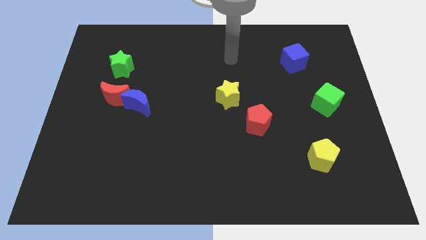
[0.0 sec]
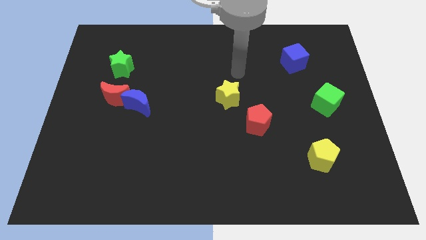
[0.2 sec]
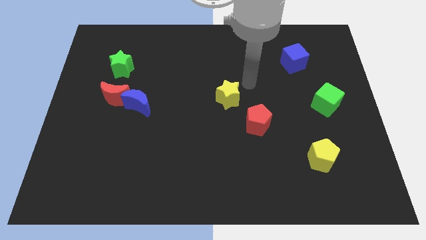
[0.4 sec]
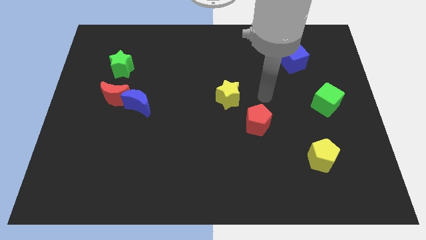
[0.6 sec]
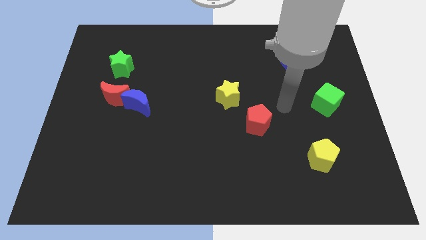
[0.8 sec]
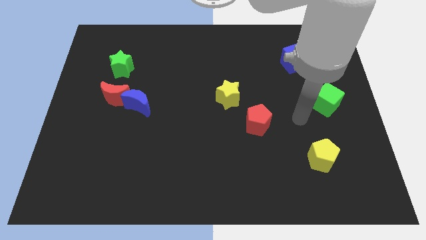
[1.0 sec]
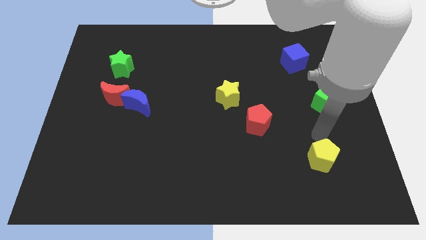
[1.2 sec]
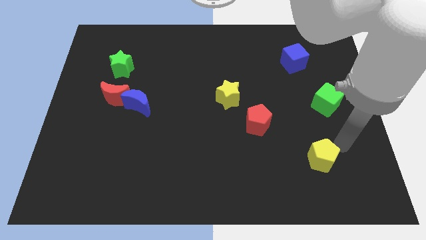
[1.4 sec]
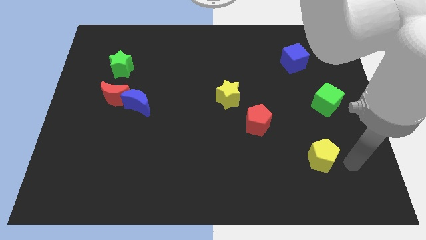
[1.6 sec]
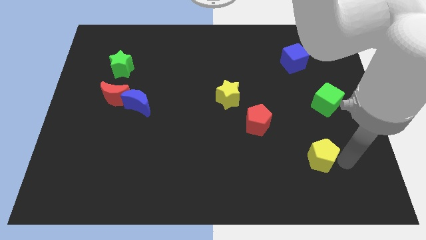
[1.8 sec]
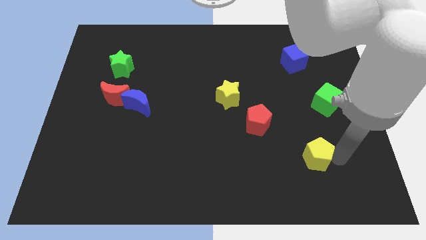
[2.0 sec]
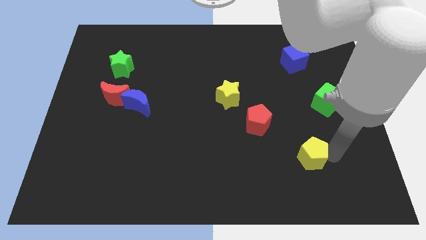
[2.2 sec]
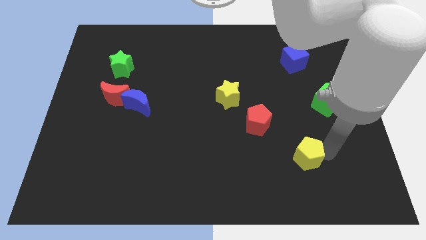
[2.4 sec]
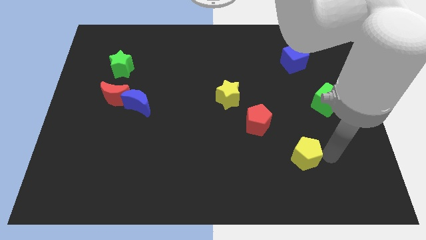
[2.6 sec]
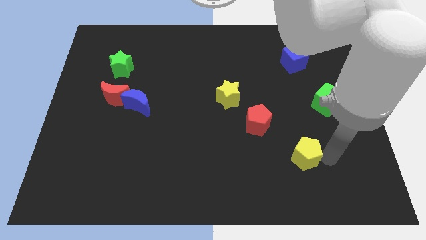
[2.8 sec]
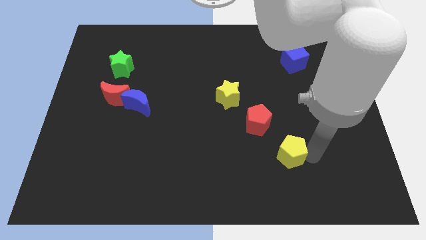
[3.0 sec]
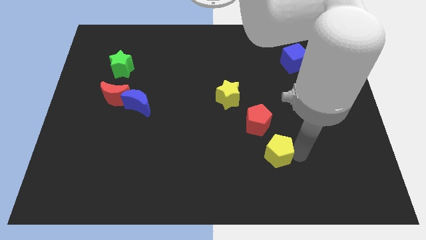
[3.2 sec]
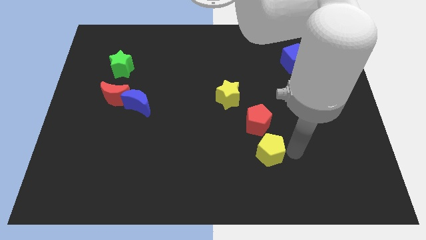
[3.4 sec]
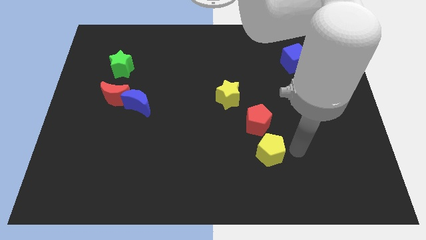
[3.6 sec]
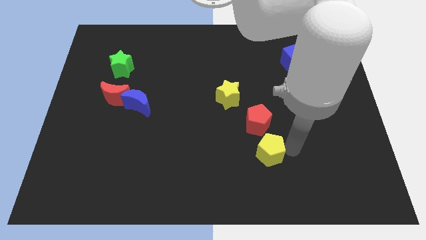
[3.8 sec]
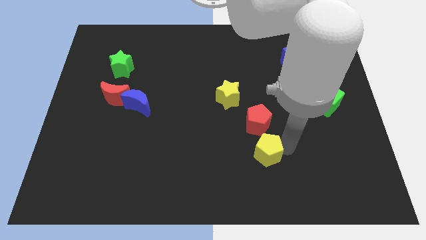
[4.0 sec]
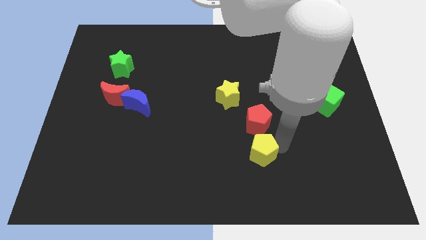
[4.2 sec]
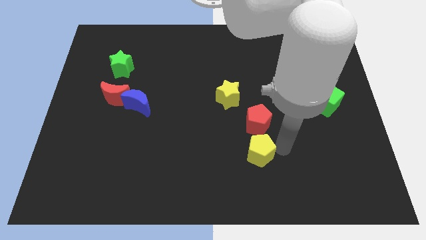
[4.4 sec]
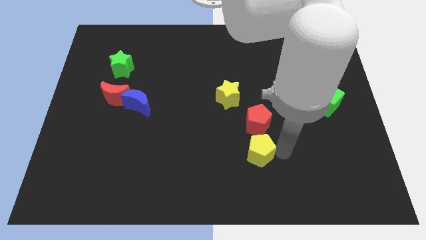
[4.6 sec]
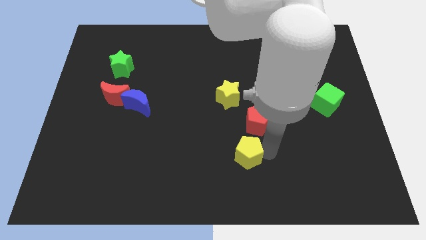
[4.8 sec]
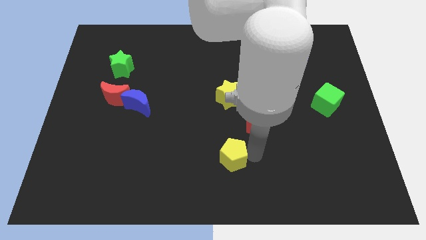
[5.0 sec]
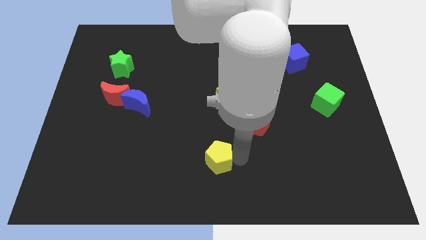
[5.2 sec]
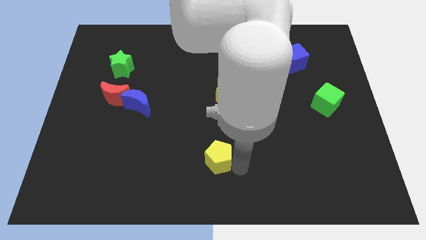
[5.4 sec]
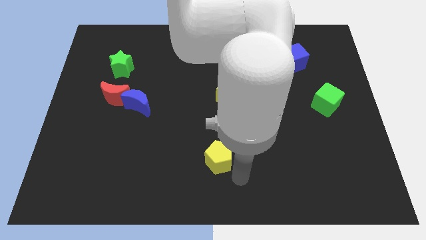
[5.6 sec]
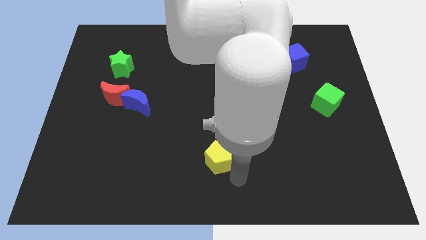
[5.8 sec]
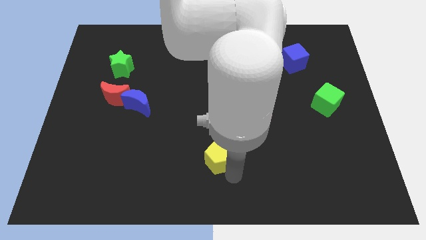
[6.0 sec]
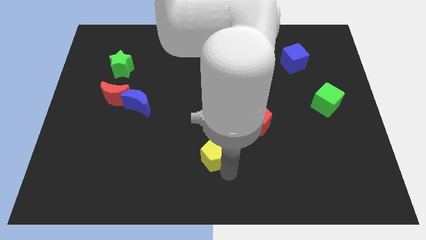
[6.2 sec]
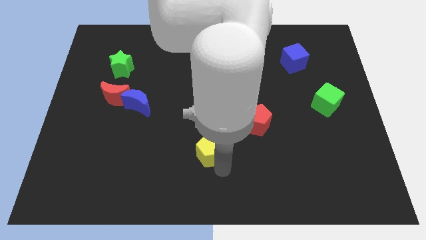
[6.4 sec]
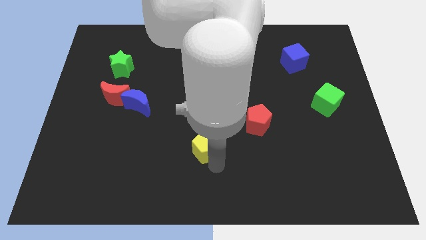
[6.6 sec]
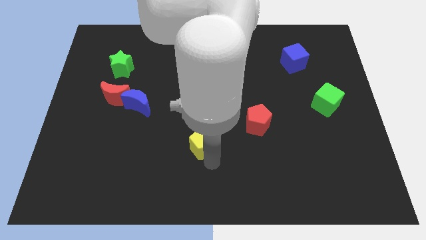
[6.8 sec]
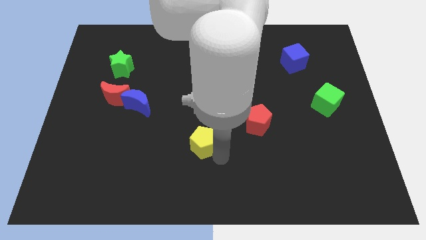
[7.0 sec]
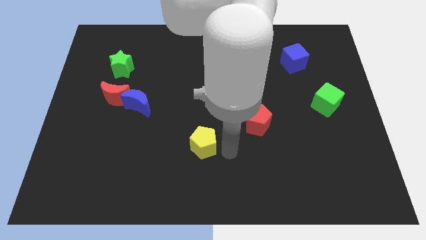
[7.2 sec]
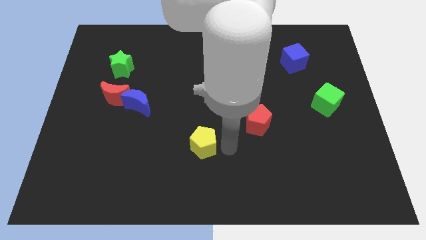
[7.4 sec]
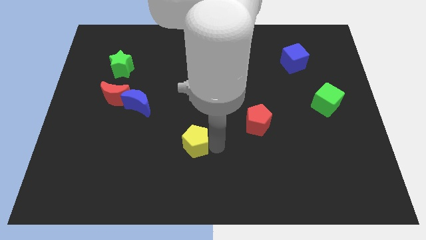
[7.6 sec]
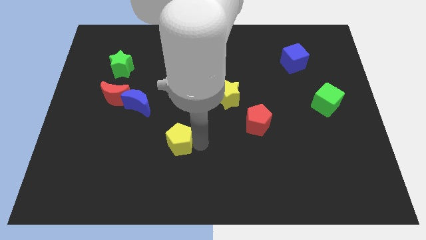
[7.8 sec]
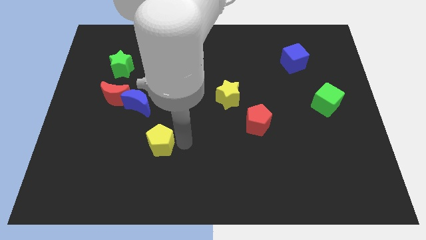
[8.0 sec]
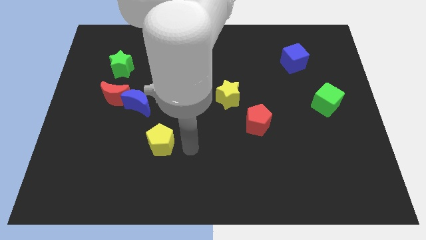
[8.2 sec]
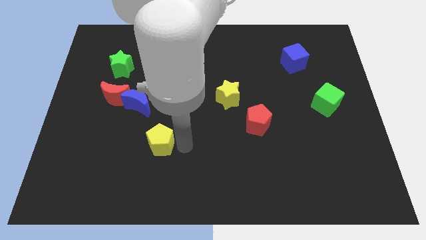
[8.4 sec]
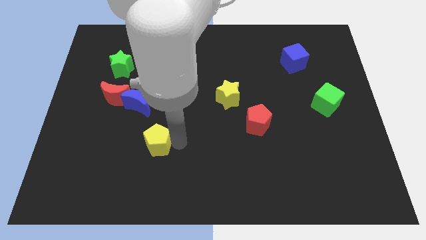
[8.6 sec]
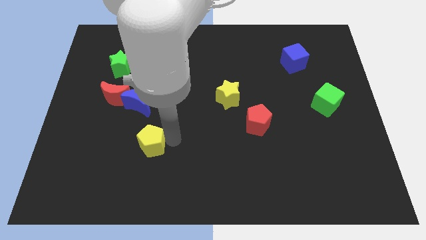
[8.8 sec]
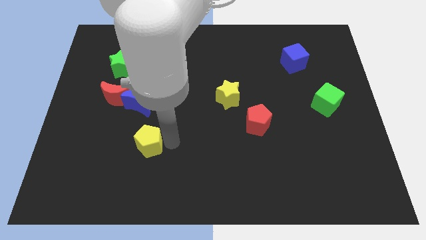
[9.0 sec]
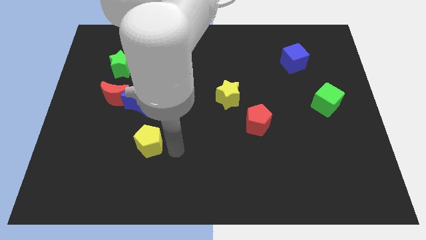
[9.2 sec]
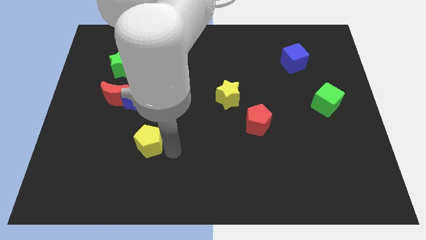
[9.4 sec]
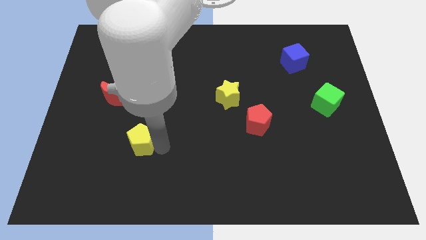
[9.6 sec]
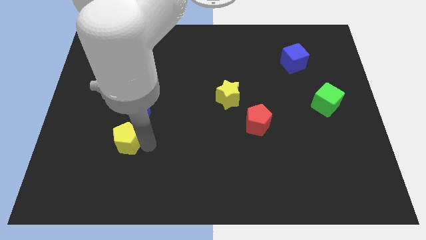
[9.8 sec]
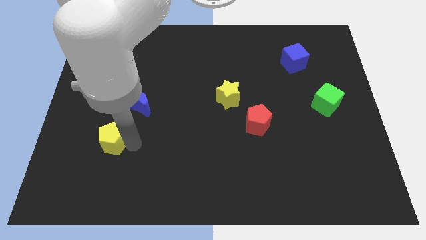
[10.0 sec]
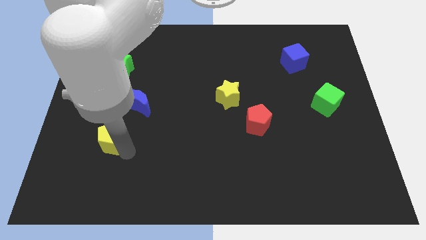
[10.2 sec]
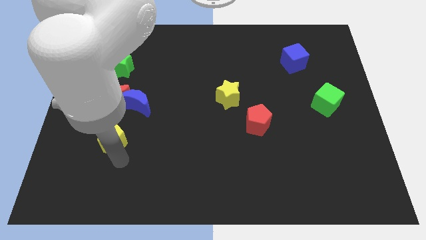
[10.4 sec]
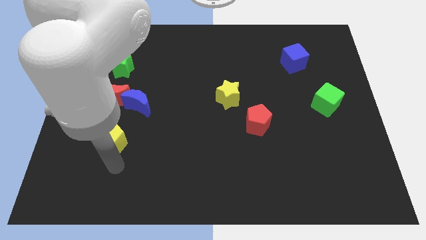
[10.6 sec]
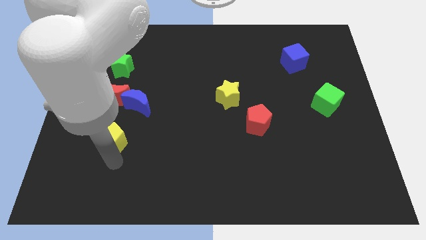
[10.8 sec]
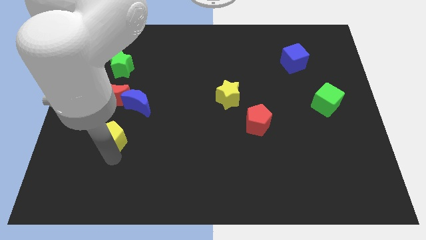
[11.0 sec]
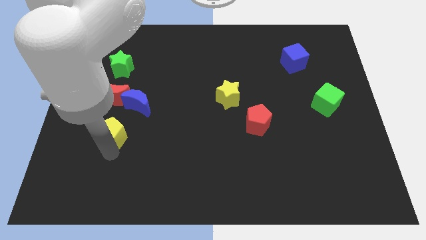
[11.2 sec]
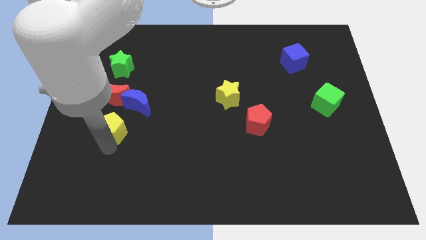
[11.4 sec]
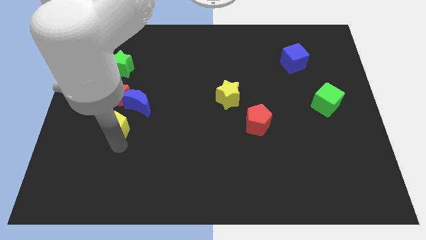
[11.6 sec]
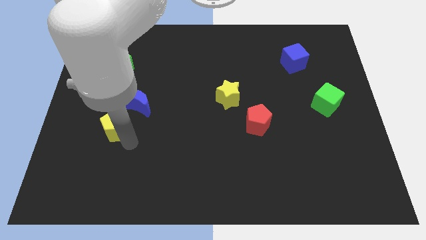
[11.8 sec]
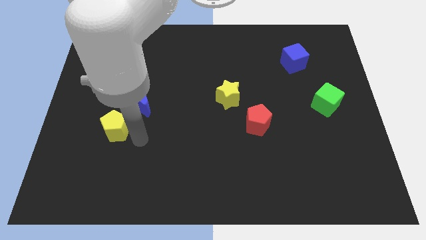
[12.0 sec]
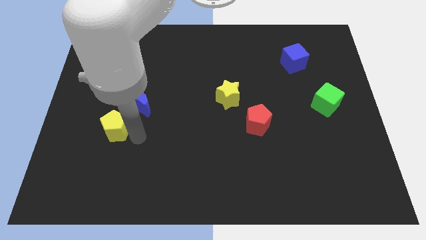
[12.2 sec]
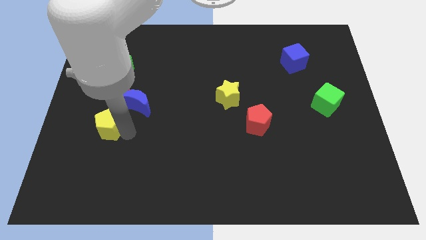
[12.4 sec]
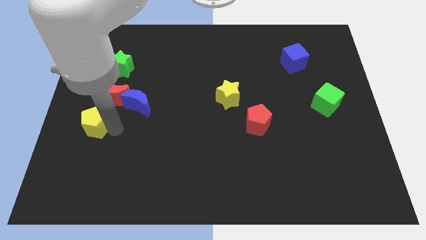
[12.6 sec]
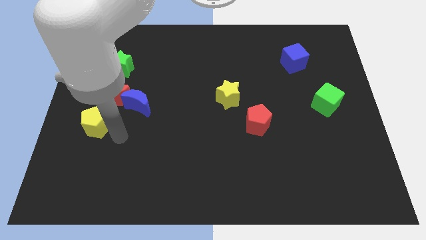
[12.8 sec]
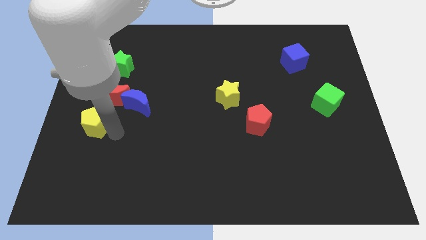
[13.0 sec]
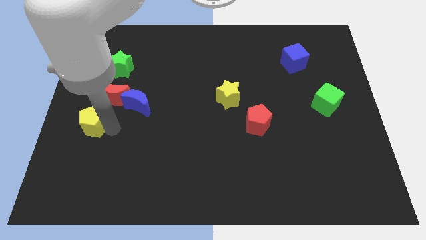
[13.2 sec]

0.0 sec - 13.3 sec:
move the yellow pentagon to the center left
